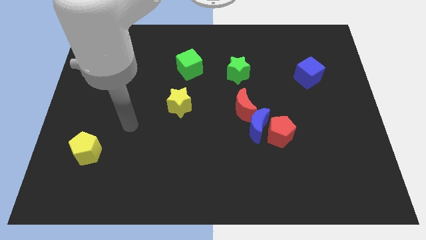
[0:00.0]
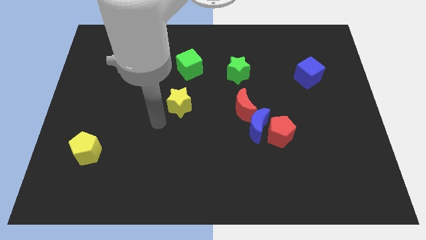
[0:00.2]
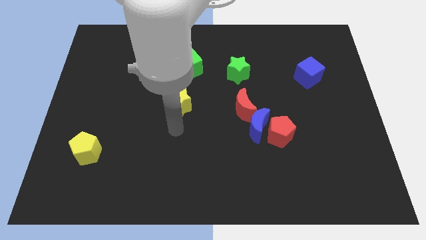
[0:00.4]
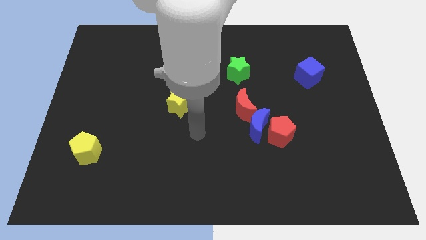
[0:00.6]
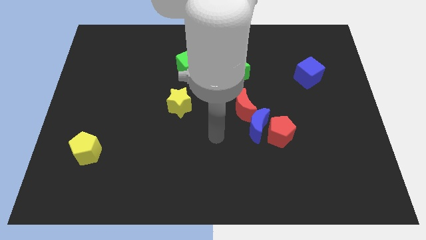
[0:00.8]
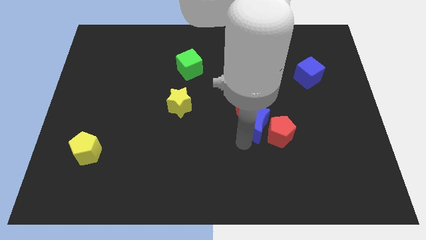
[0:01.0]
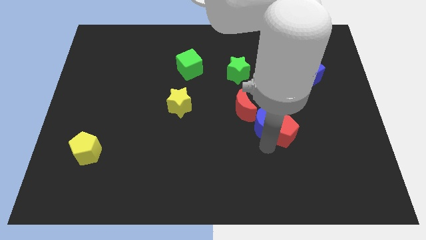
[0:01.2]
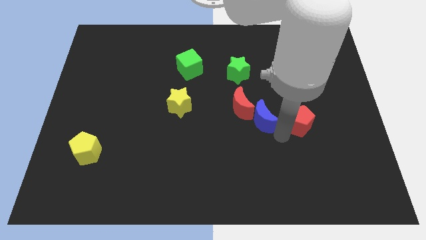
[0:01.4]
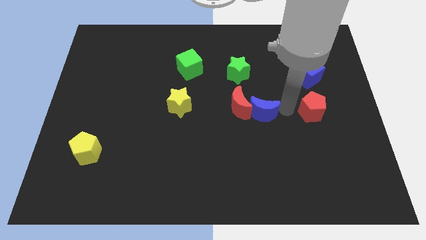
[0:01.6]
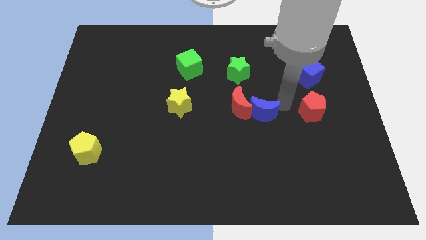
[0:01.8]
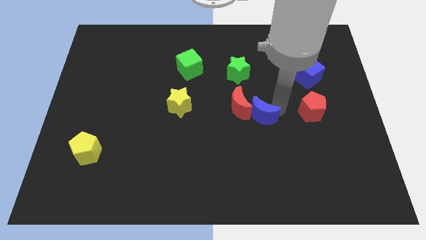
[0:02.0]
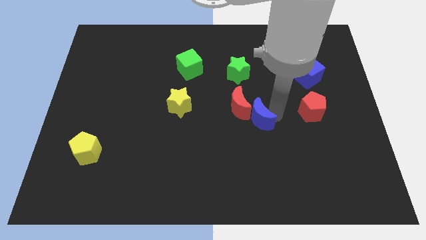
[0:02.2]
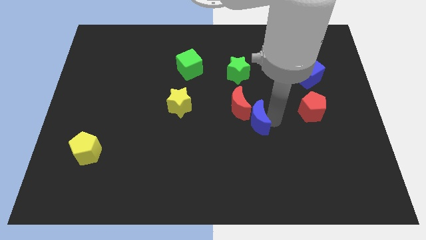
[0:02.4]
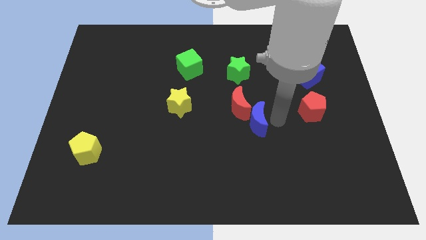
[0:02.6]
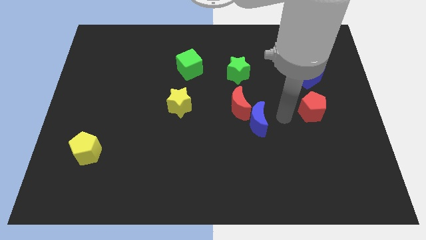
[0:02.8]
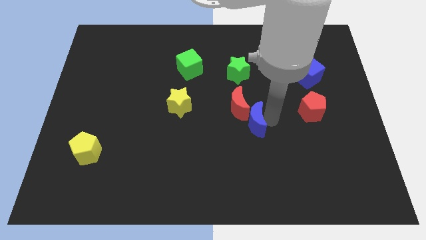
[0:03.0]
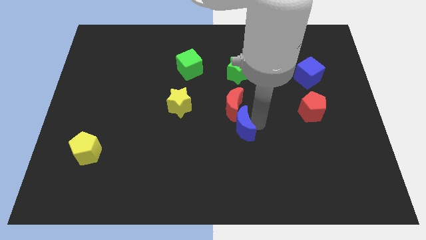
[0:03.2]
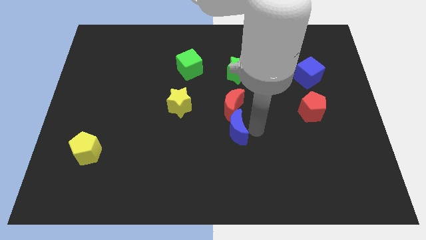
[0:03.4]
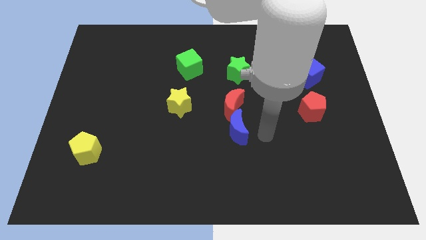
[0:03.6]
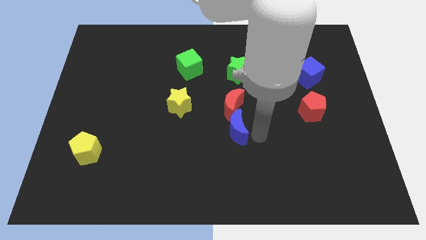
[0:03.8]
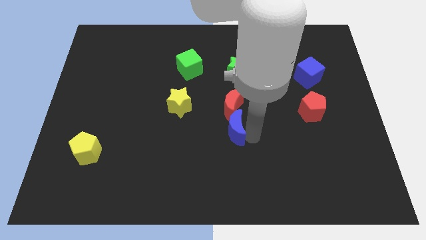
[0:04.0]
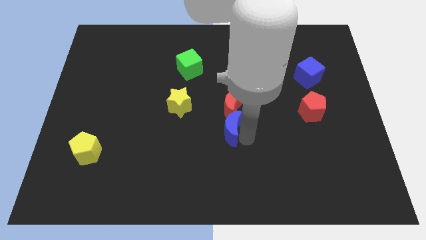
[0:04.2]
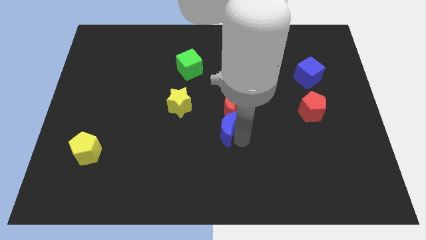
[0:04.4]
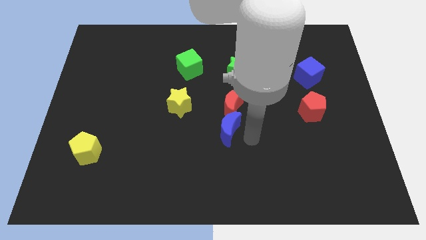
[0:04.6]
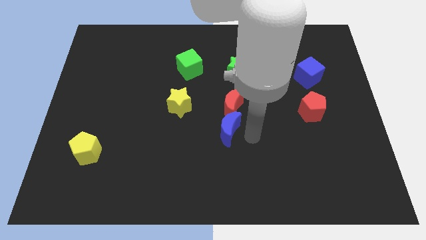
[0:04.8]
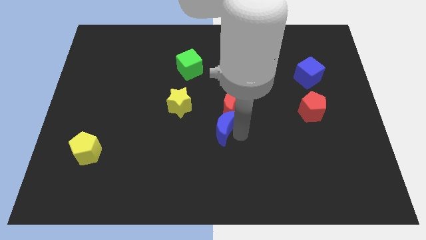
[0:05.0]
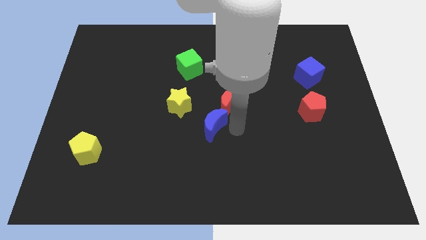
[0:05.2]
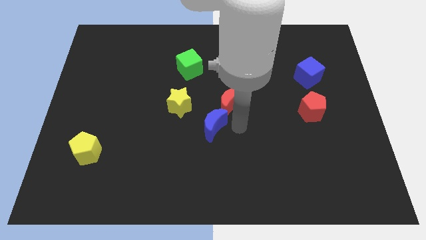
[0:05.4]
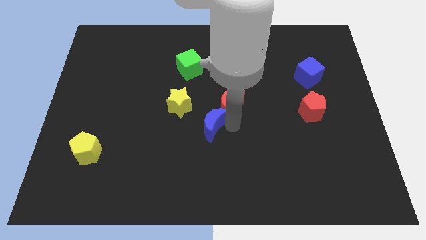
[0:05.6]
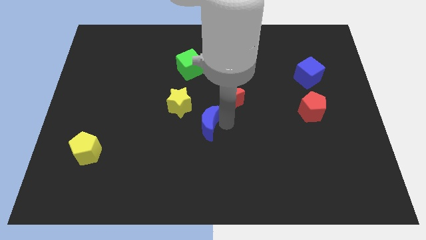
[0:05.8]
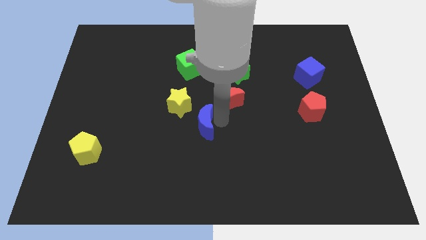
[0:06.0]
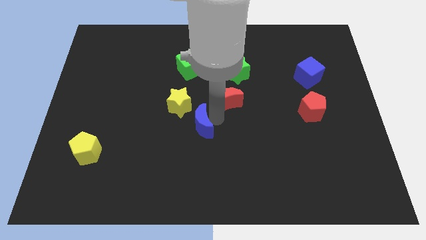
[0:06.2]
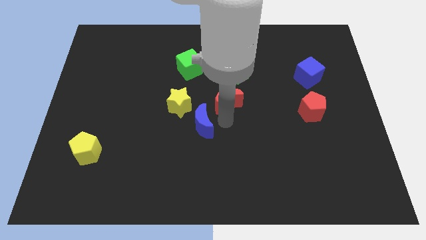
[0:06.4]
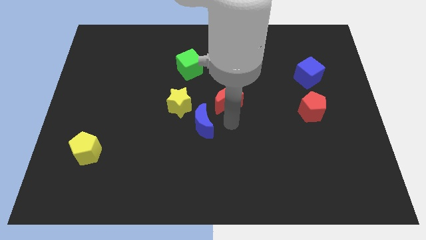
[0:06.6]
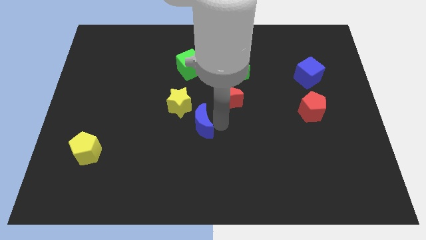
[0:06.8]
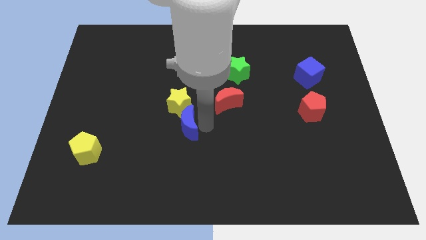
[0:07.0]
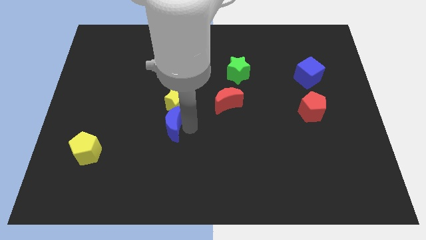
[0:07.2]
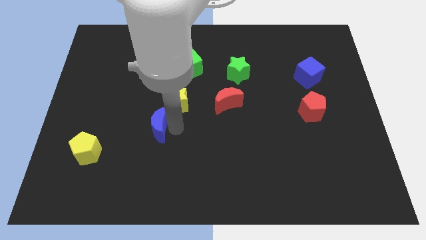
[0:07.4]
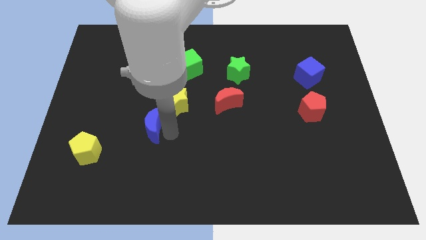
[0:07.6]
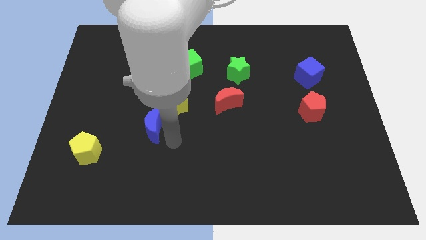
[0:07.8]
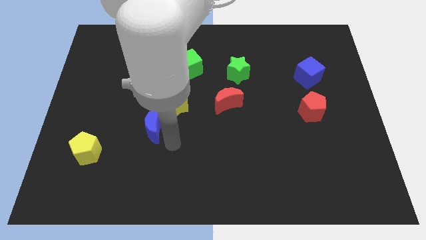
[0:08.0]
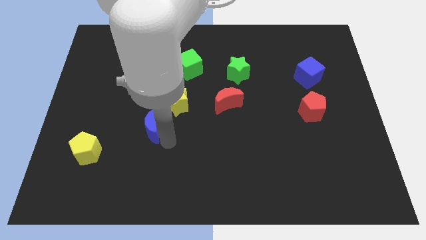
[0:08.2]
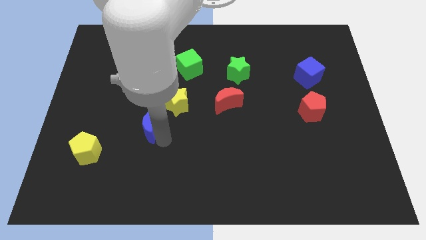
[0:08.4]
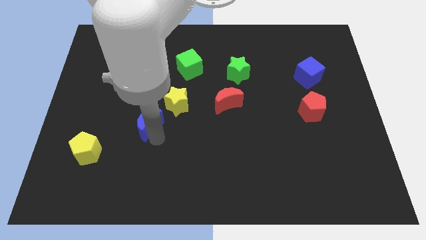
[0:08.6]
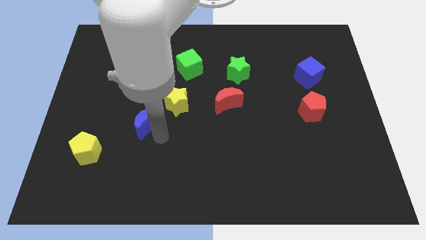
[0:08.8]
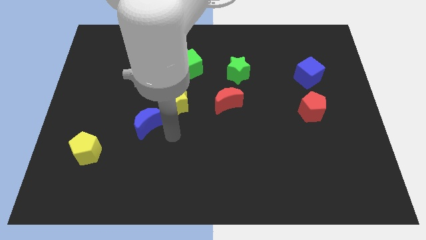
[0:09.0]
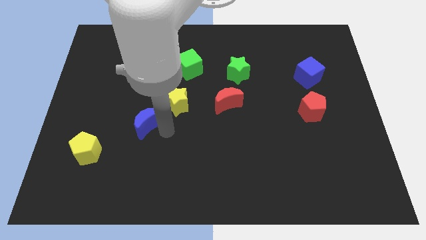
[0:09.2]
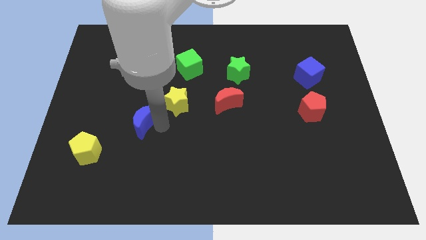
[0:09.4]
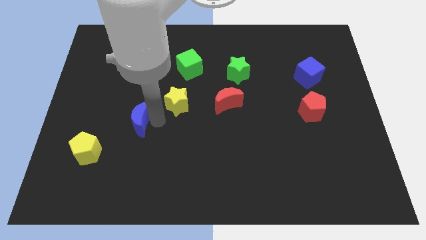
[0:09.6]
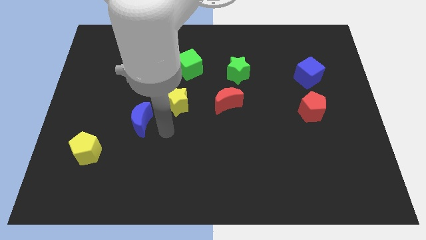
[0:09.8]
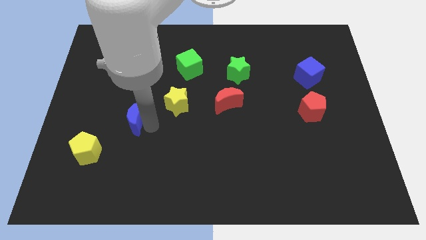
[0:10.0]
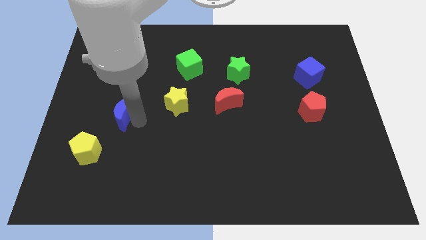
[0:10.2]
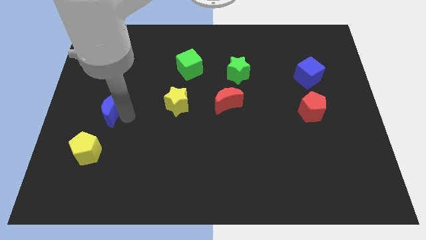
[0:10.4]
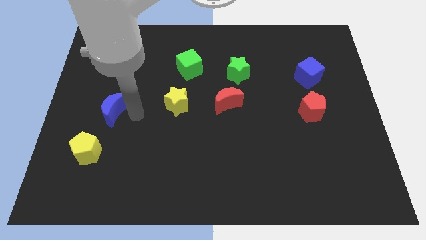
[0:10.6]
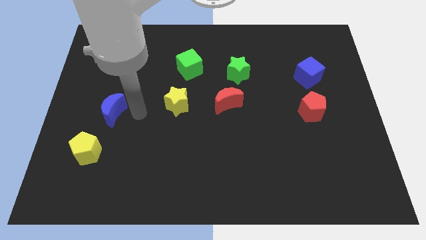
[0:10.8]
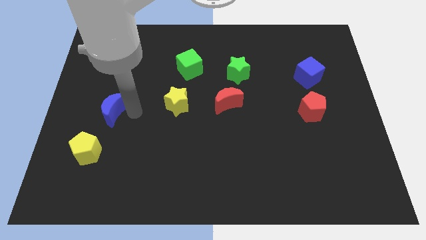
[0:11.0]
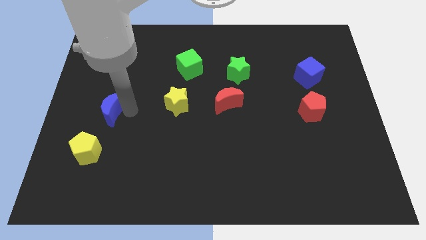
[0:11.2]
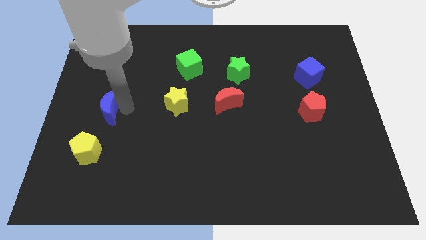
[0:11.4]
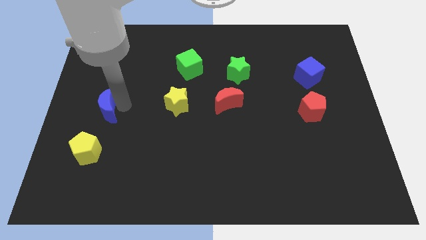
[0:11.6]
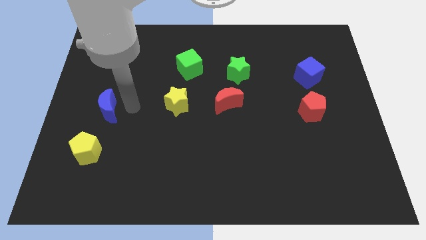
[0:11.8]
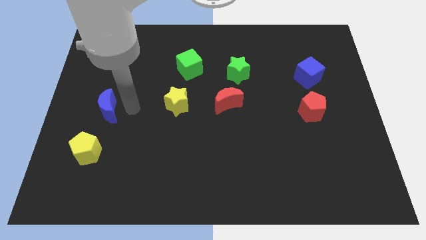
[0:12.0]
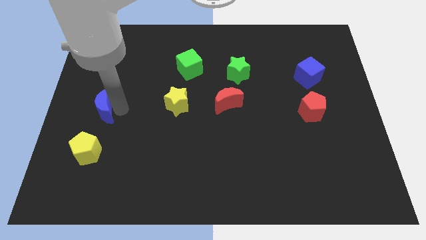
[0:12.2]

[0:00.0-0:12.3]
put the blue moon to the left side of the board

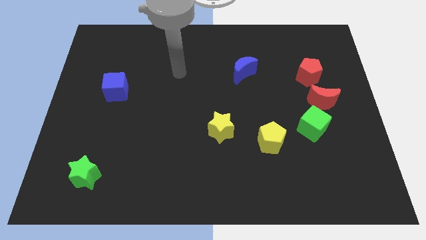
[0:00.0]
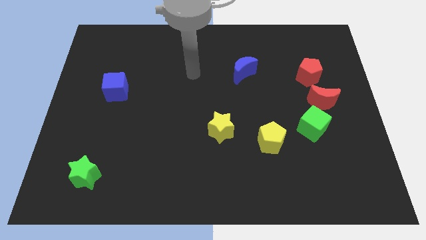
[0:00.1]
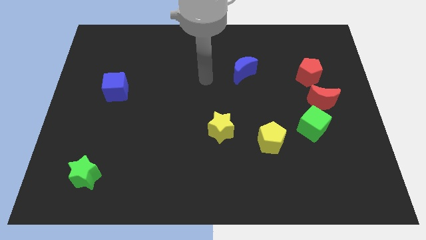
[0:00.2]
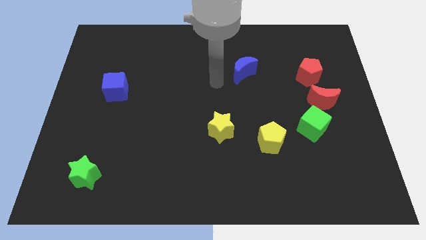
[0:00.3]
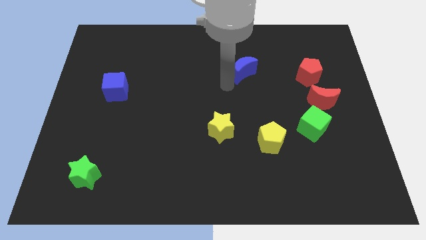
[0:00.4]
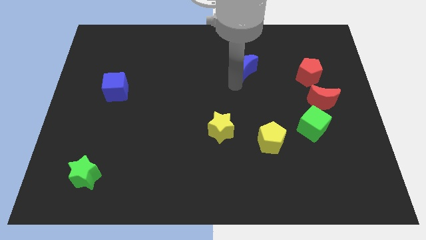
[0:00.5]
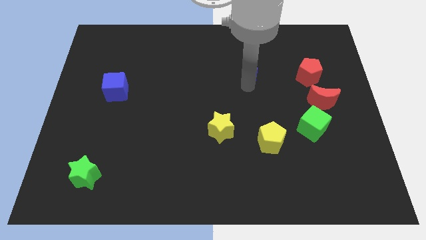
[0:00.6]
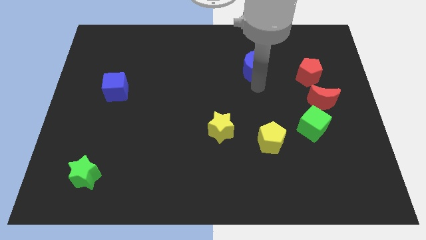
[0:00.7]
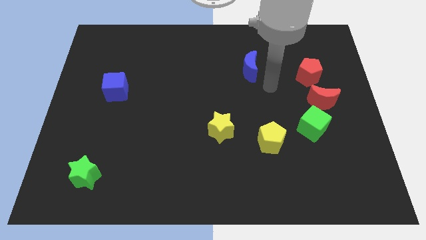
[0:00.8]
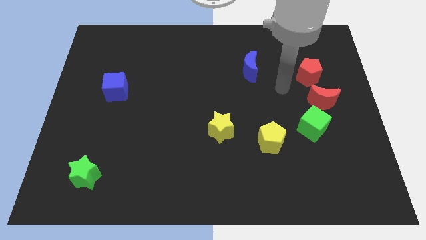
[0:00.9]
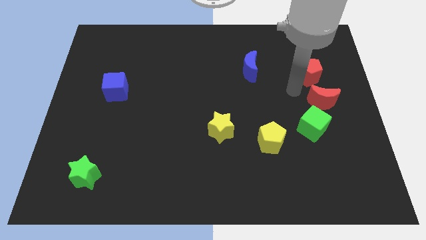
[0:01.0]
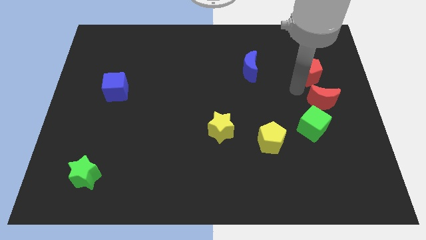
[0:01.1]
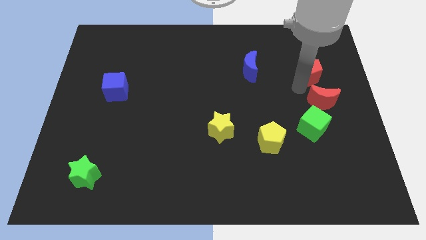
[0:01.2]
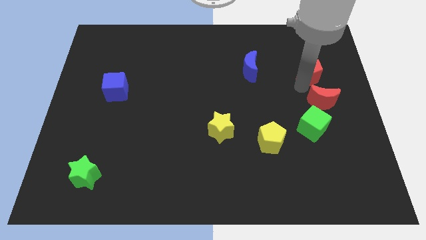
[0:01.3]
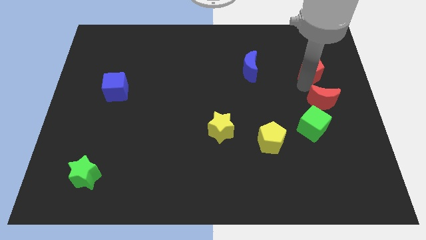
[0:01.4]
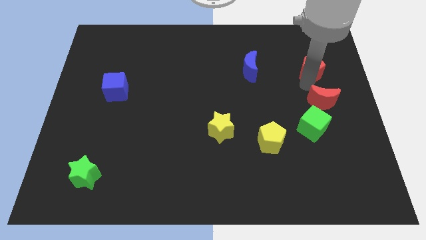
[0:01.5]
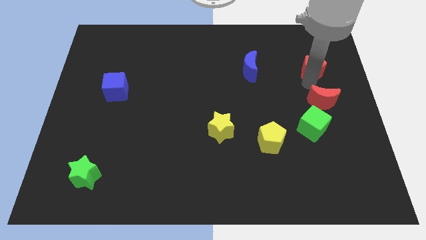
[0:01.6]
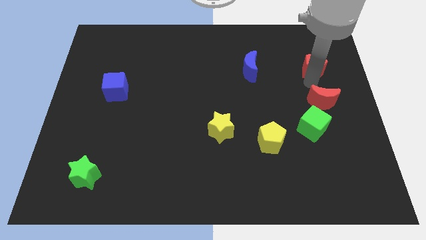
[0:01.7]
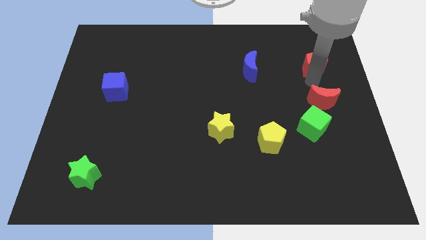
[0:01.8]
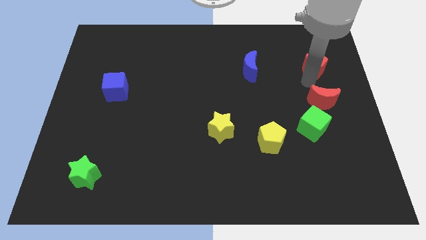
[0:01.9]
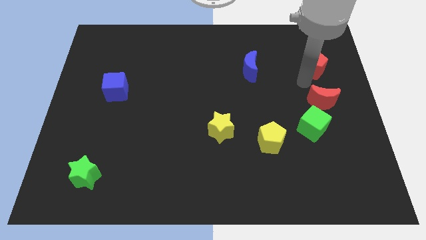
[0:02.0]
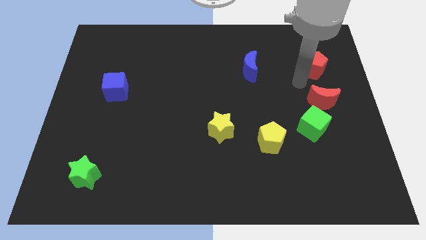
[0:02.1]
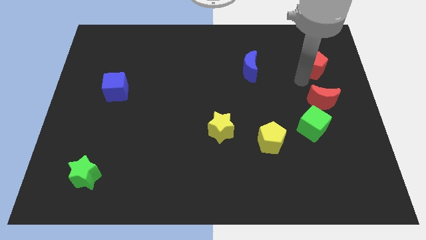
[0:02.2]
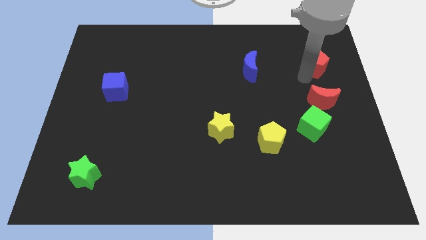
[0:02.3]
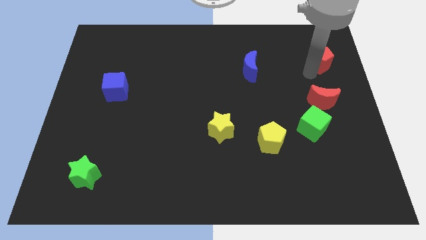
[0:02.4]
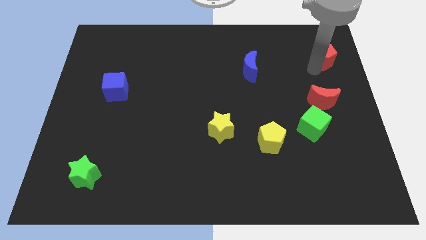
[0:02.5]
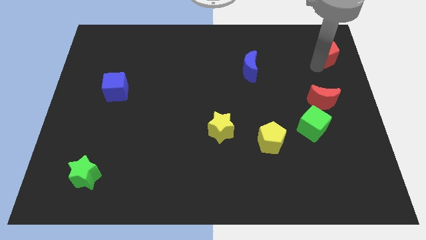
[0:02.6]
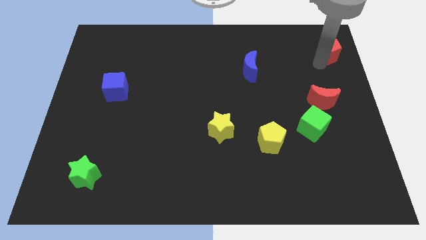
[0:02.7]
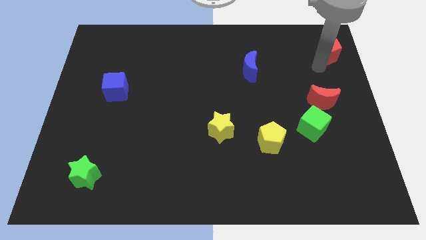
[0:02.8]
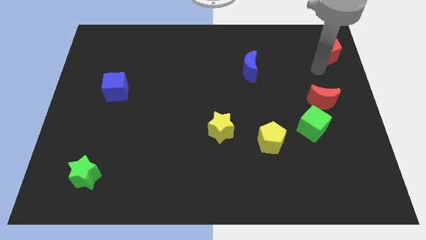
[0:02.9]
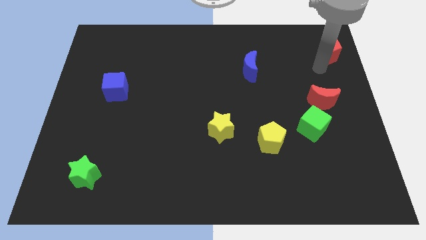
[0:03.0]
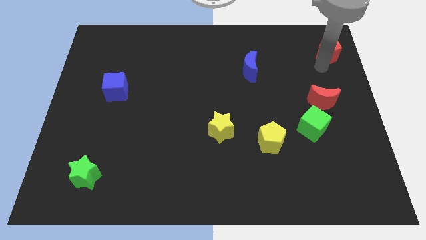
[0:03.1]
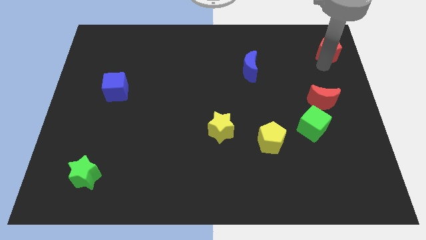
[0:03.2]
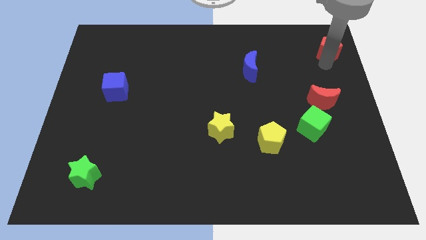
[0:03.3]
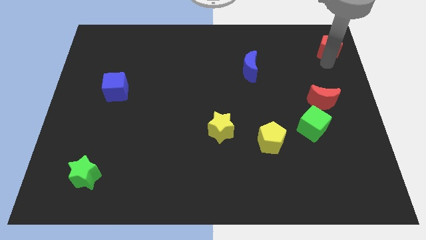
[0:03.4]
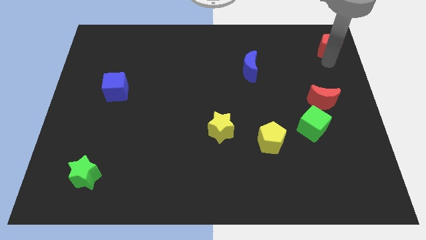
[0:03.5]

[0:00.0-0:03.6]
move the red pentagon to the upper right corner
